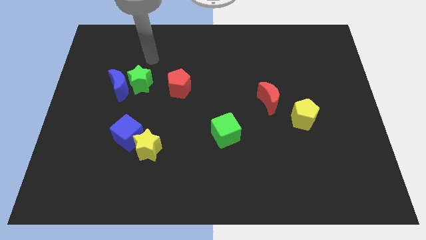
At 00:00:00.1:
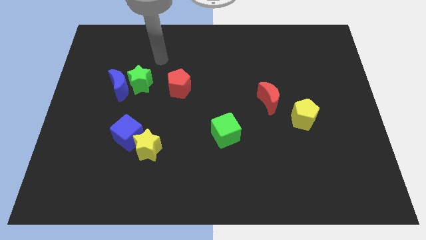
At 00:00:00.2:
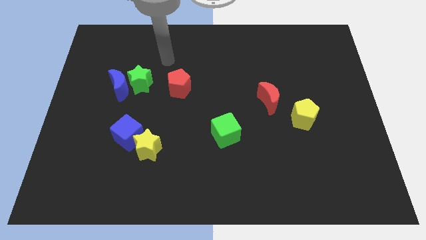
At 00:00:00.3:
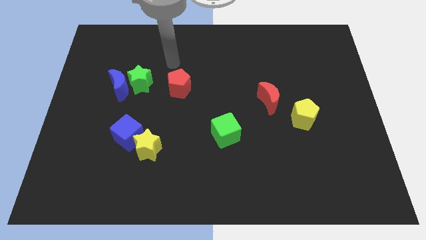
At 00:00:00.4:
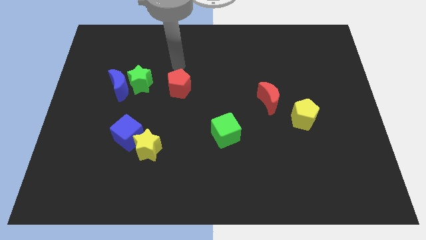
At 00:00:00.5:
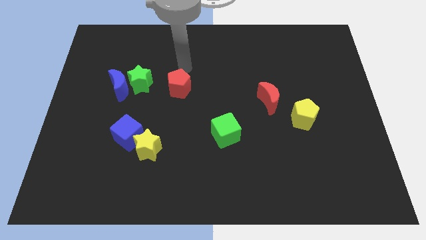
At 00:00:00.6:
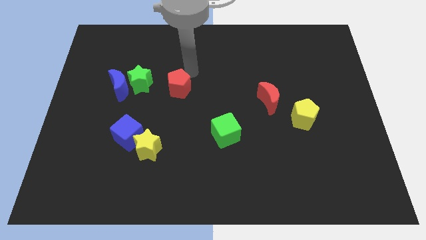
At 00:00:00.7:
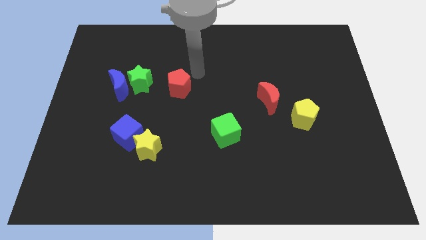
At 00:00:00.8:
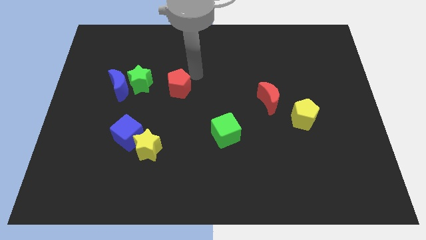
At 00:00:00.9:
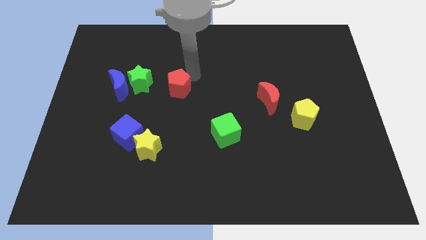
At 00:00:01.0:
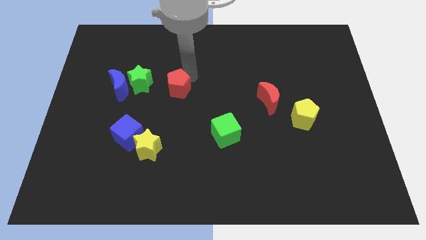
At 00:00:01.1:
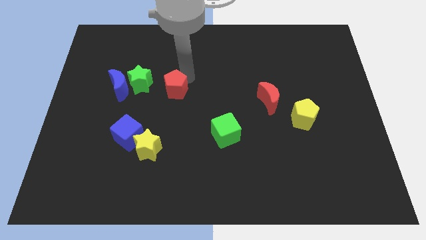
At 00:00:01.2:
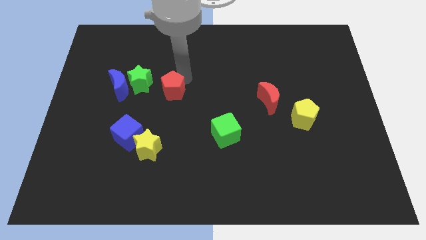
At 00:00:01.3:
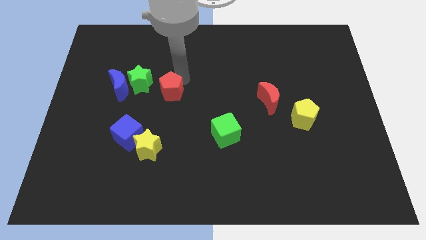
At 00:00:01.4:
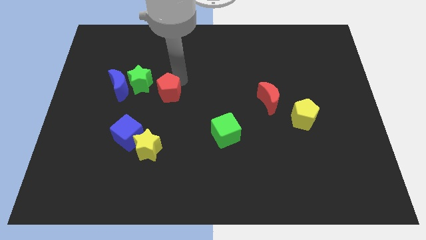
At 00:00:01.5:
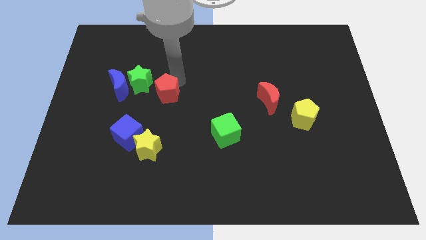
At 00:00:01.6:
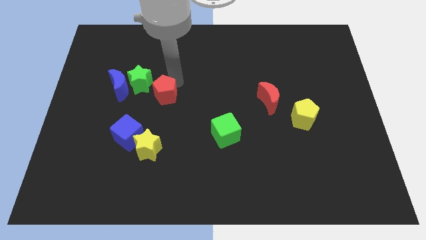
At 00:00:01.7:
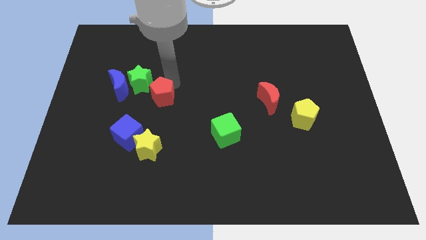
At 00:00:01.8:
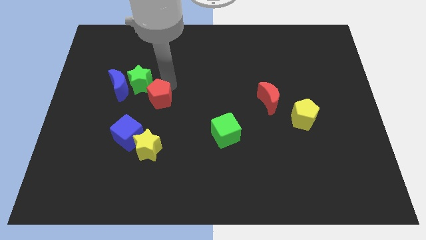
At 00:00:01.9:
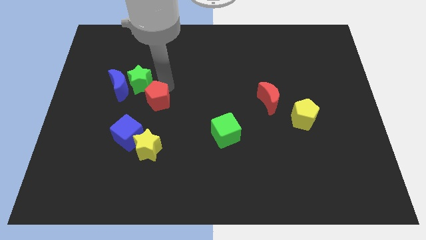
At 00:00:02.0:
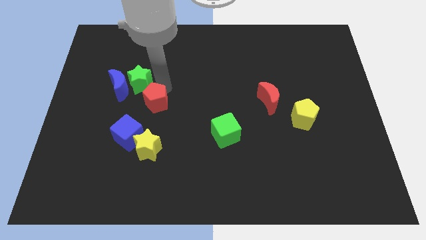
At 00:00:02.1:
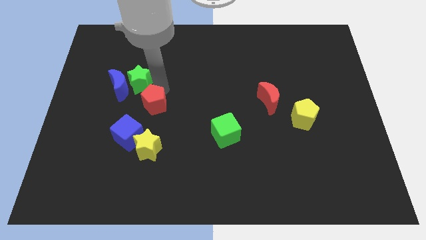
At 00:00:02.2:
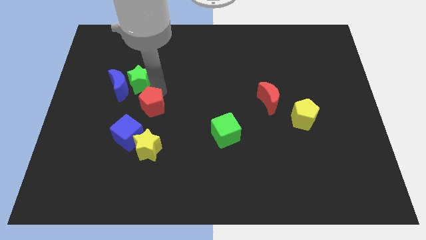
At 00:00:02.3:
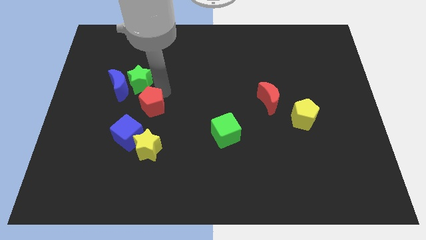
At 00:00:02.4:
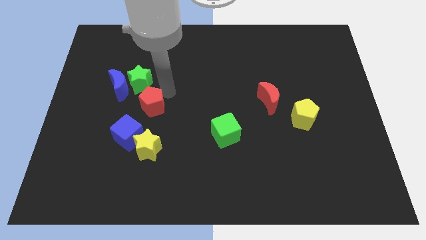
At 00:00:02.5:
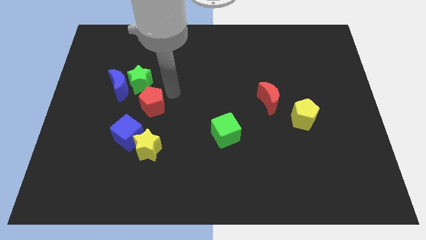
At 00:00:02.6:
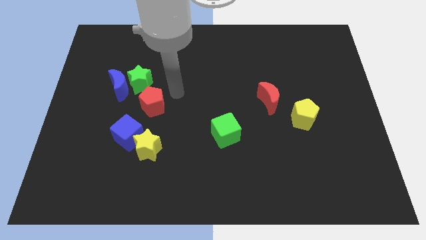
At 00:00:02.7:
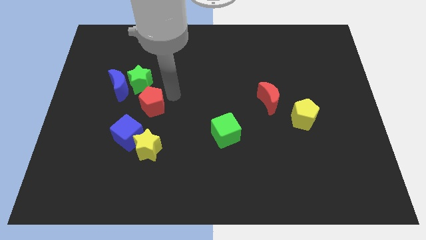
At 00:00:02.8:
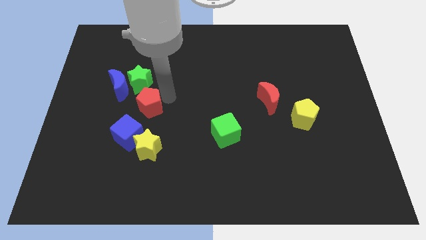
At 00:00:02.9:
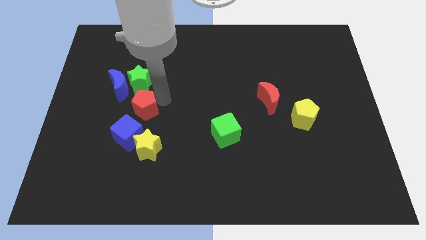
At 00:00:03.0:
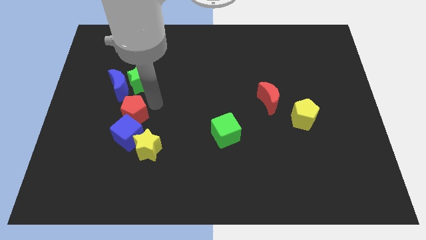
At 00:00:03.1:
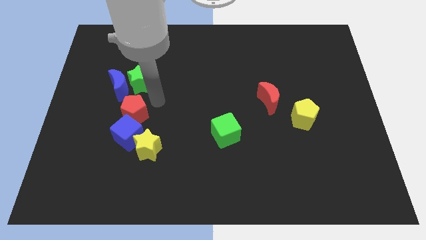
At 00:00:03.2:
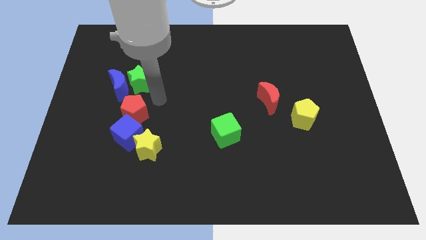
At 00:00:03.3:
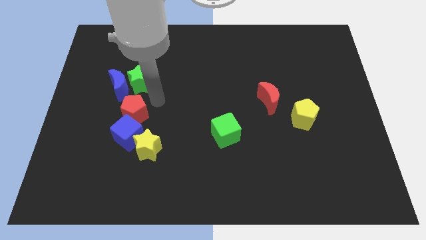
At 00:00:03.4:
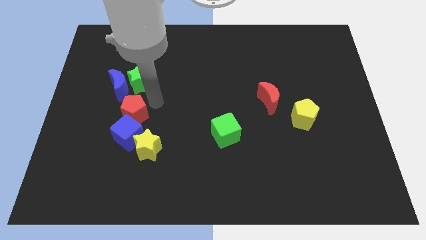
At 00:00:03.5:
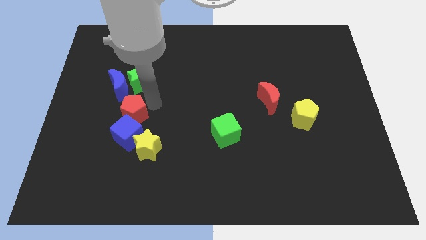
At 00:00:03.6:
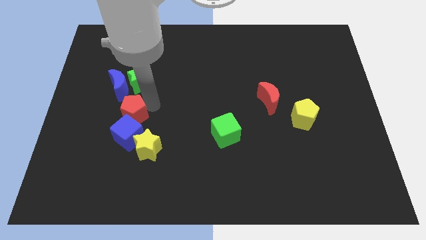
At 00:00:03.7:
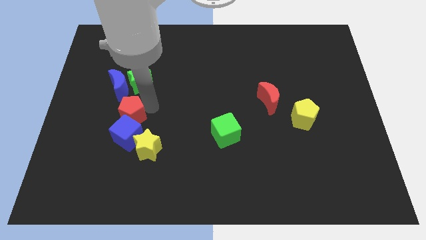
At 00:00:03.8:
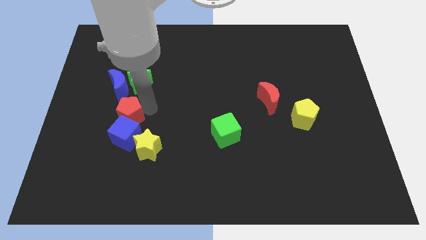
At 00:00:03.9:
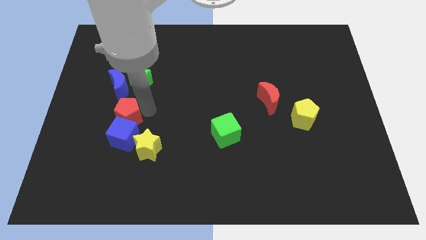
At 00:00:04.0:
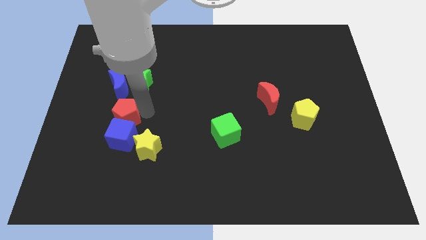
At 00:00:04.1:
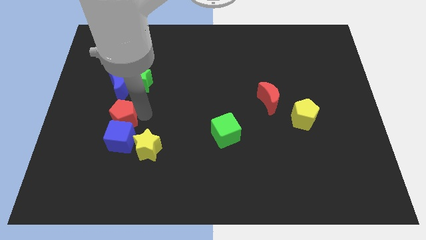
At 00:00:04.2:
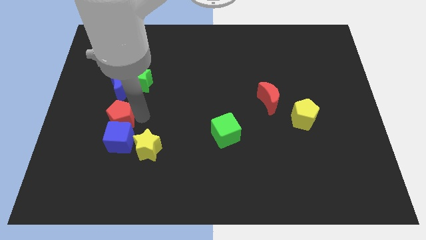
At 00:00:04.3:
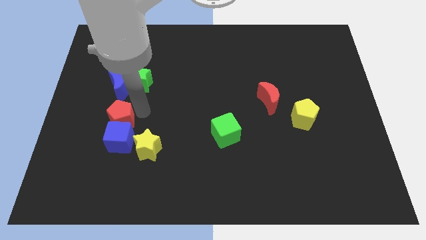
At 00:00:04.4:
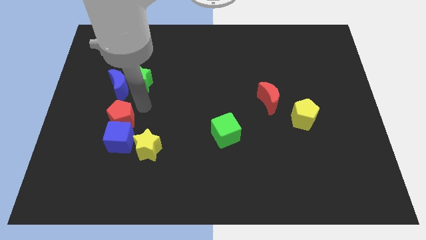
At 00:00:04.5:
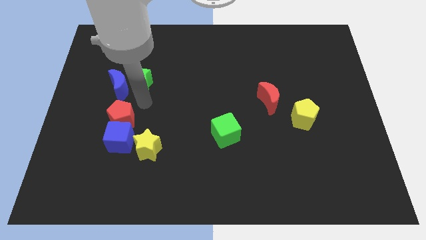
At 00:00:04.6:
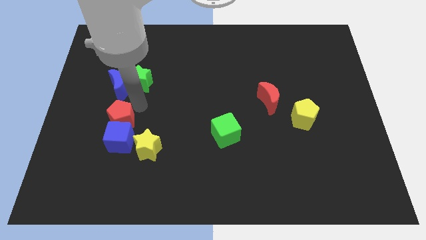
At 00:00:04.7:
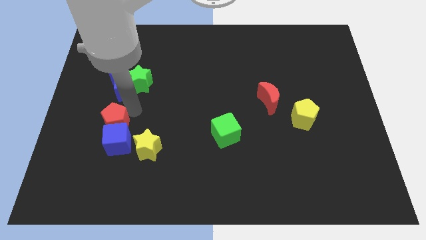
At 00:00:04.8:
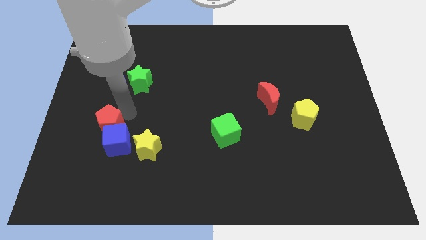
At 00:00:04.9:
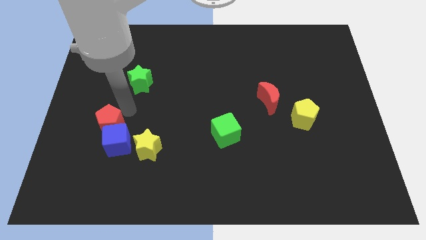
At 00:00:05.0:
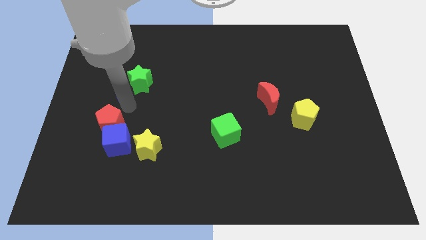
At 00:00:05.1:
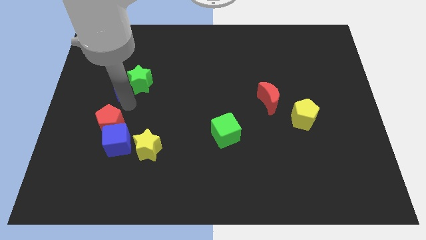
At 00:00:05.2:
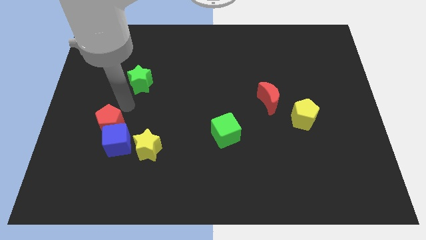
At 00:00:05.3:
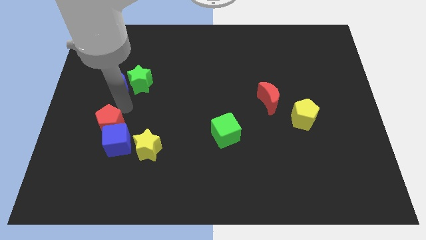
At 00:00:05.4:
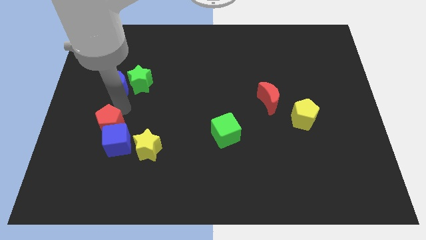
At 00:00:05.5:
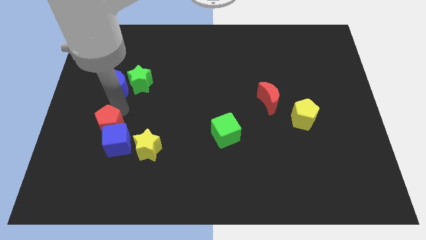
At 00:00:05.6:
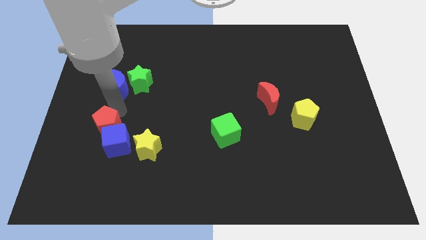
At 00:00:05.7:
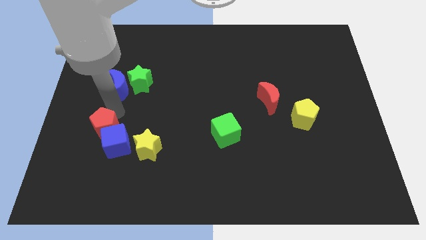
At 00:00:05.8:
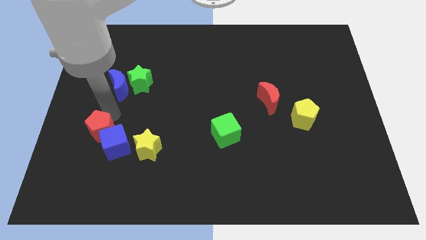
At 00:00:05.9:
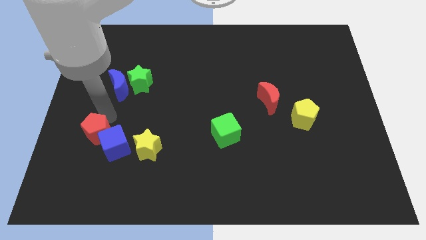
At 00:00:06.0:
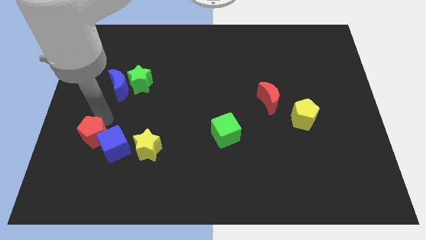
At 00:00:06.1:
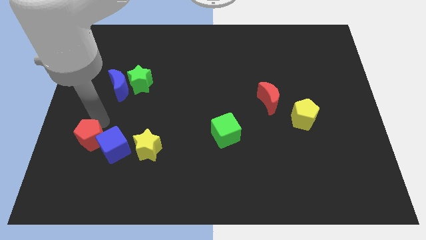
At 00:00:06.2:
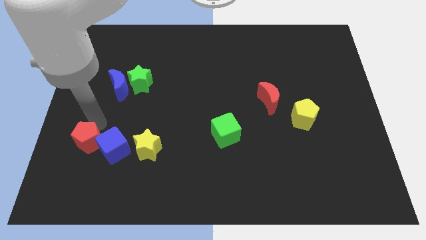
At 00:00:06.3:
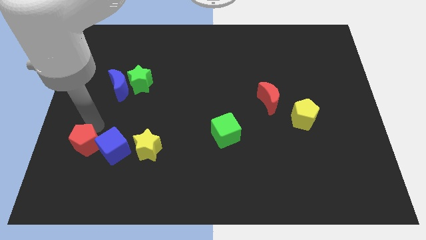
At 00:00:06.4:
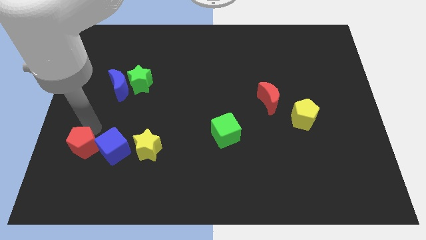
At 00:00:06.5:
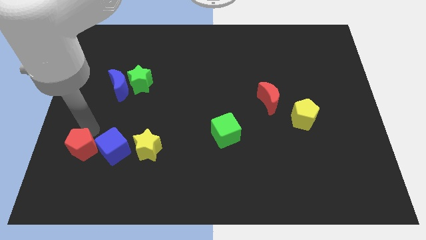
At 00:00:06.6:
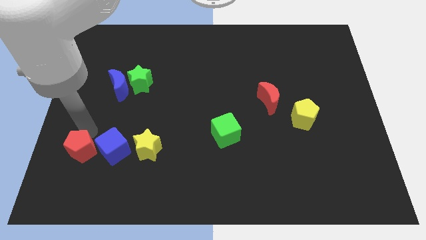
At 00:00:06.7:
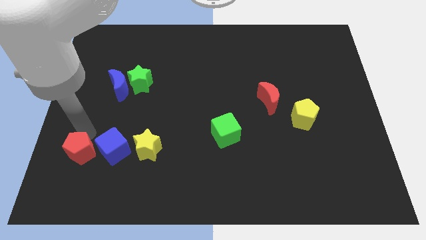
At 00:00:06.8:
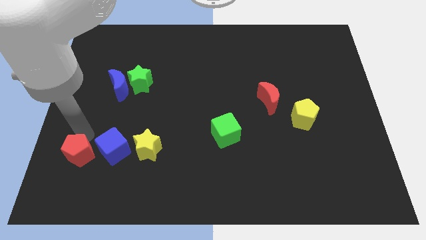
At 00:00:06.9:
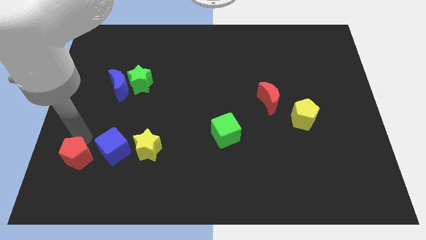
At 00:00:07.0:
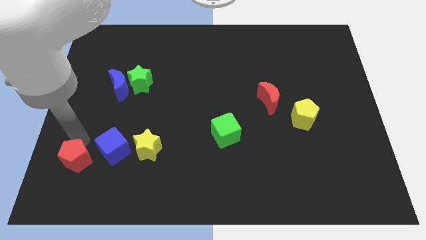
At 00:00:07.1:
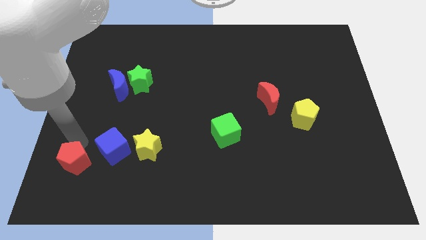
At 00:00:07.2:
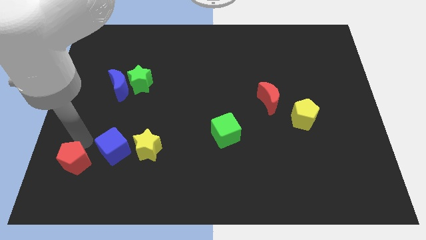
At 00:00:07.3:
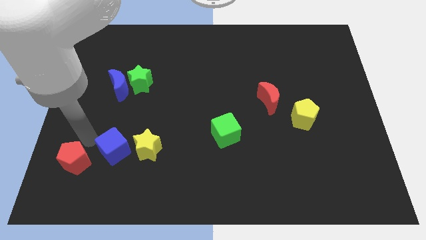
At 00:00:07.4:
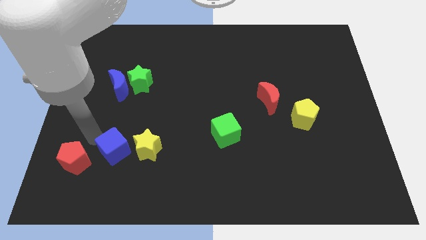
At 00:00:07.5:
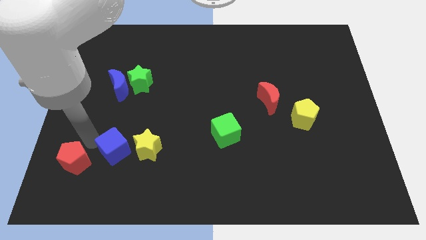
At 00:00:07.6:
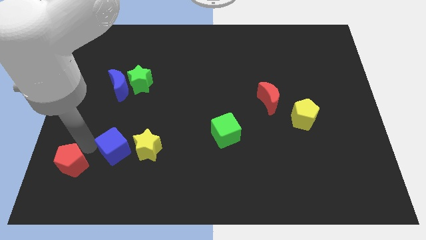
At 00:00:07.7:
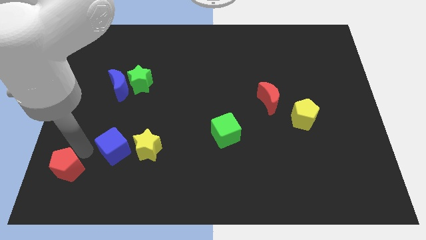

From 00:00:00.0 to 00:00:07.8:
push the red pentagon to the lower left corner
